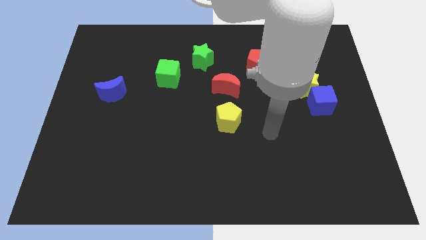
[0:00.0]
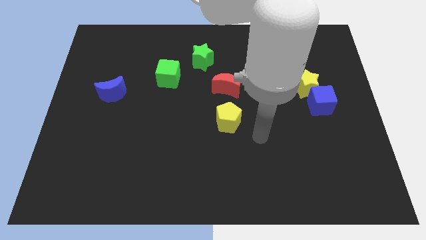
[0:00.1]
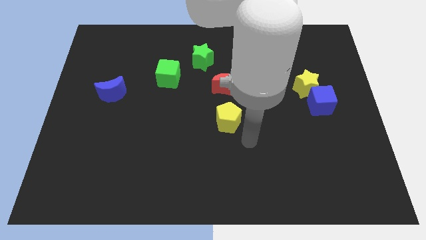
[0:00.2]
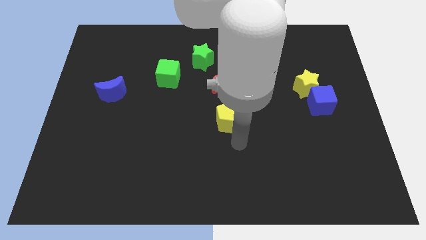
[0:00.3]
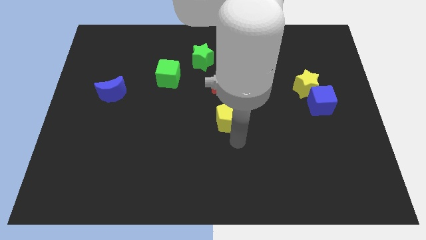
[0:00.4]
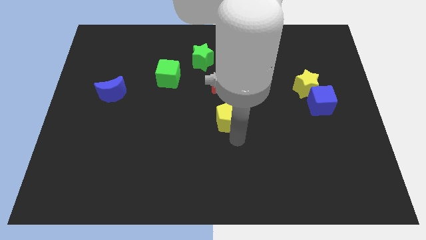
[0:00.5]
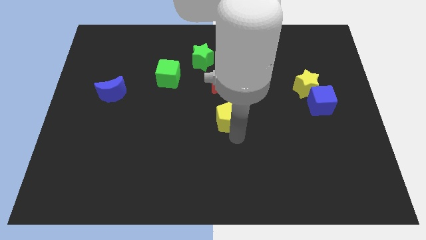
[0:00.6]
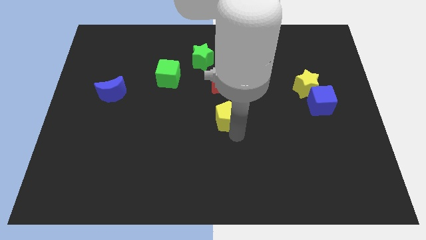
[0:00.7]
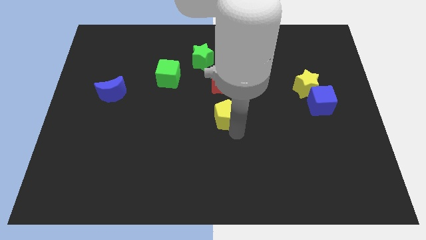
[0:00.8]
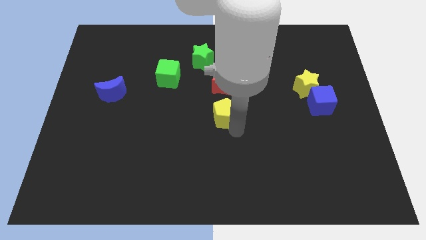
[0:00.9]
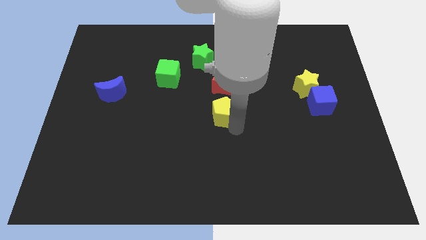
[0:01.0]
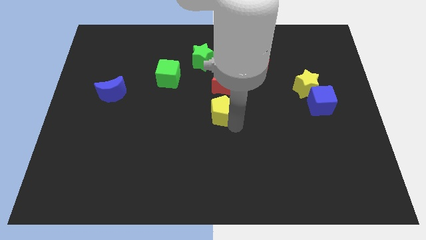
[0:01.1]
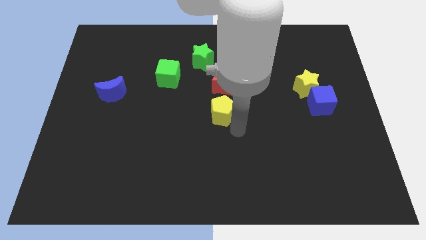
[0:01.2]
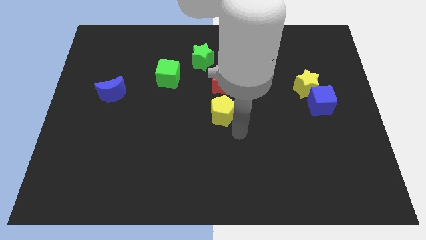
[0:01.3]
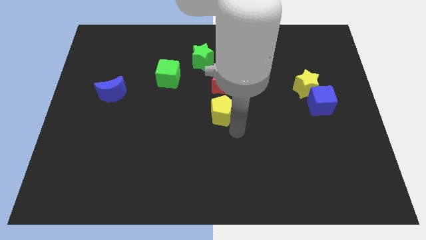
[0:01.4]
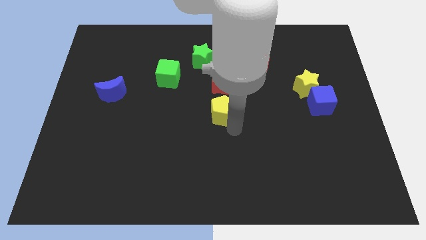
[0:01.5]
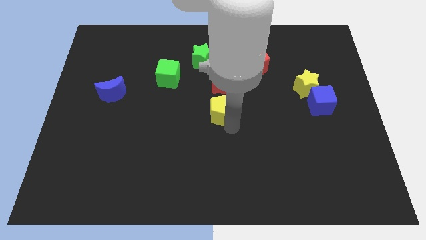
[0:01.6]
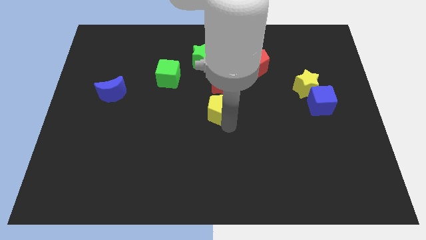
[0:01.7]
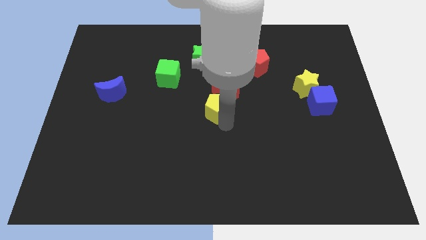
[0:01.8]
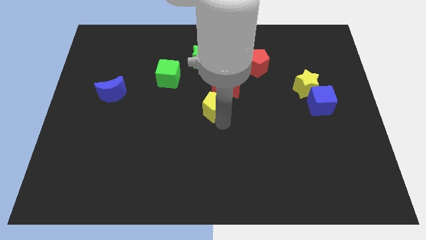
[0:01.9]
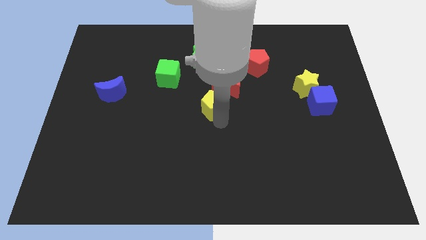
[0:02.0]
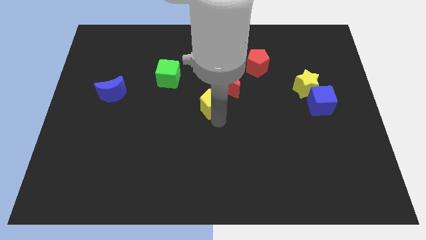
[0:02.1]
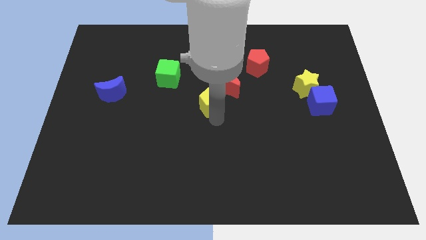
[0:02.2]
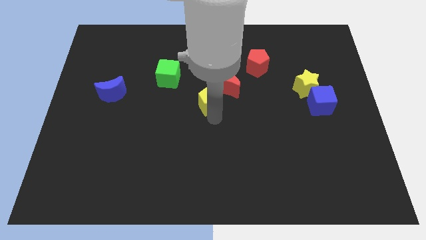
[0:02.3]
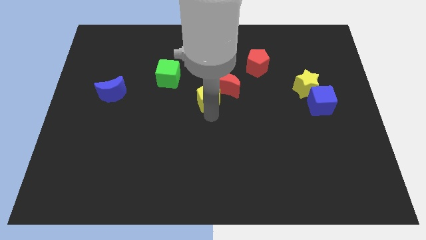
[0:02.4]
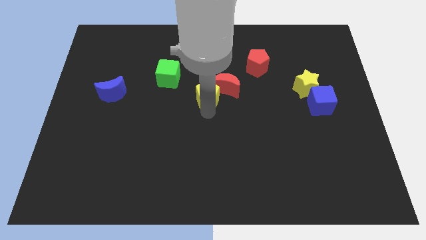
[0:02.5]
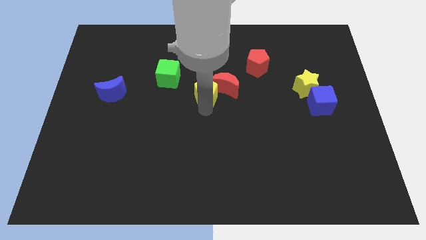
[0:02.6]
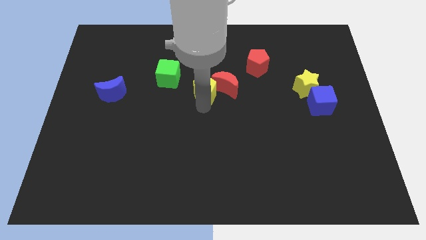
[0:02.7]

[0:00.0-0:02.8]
move the yellow pentagon upwards a little bit

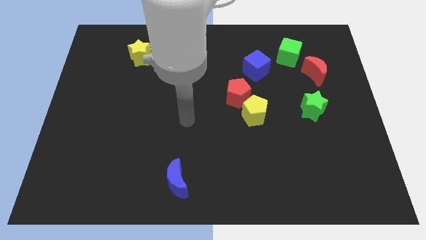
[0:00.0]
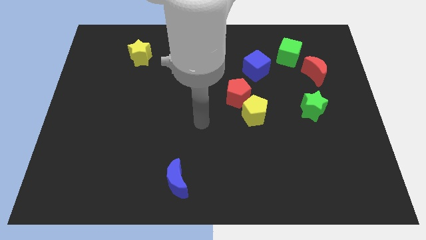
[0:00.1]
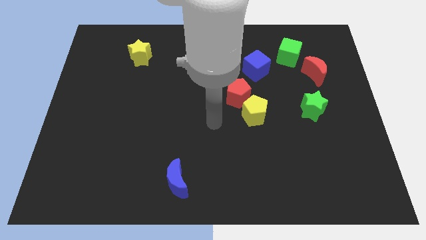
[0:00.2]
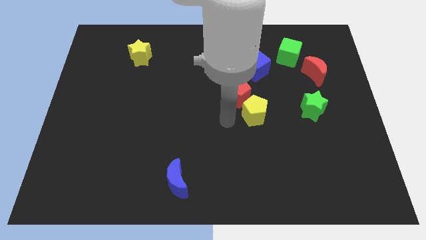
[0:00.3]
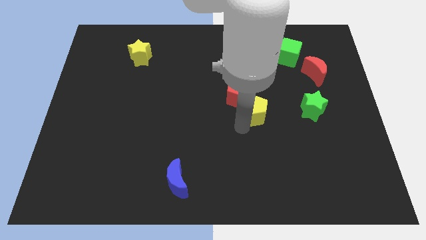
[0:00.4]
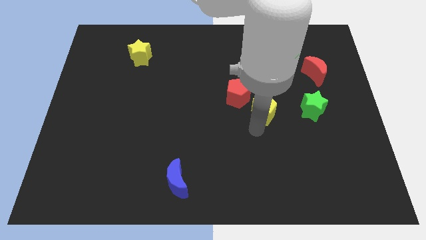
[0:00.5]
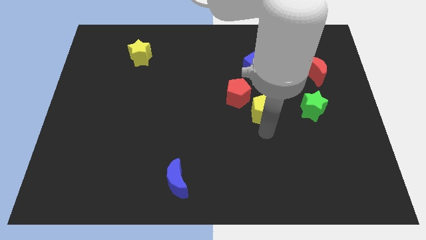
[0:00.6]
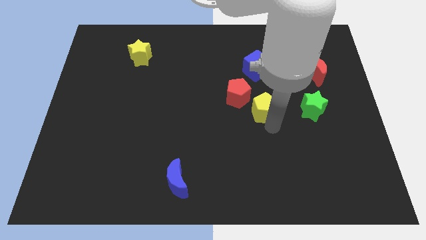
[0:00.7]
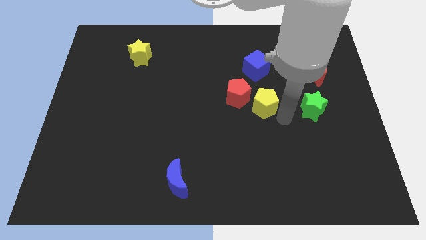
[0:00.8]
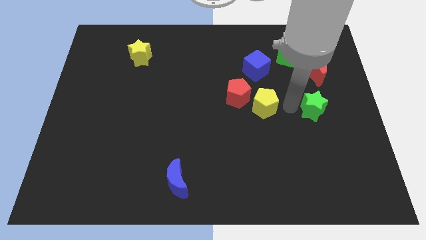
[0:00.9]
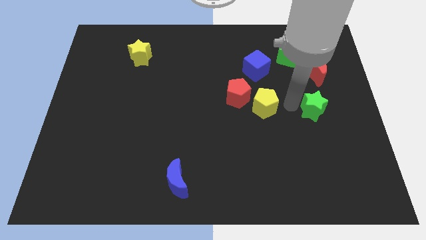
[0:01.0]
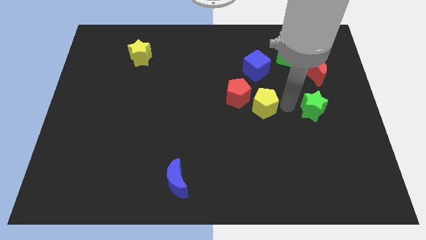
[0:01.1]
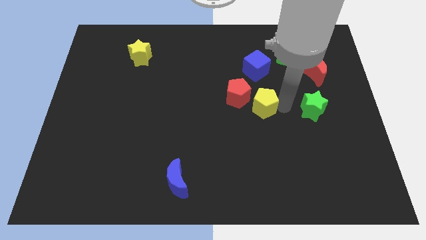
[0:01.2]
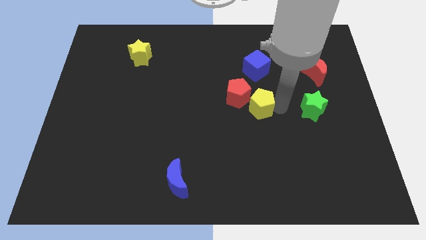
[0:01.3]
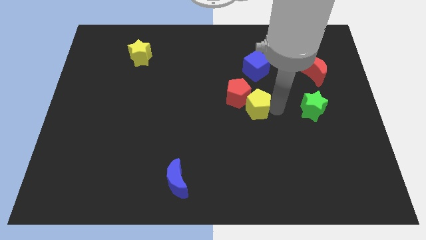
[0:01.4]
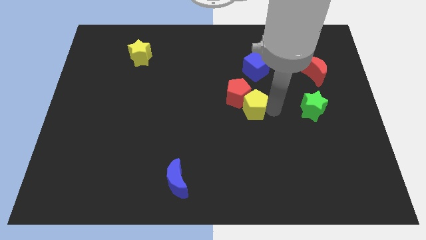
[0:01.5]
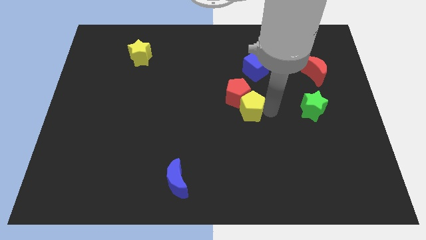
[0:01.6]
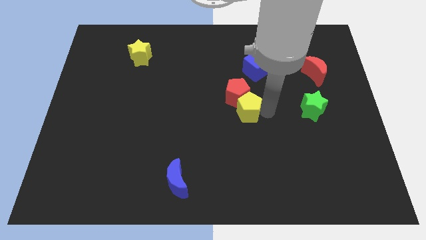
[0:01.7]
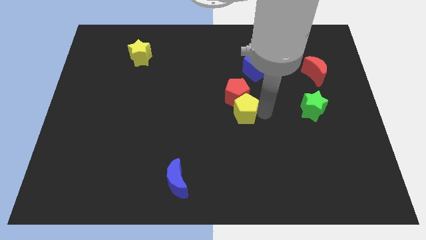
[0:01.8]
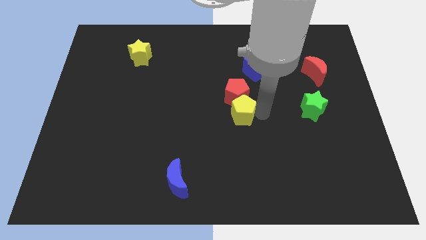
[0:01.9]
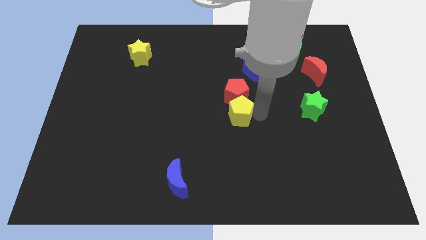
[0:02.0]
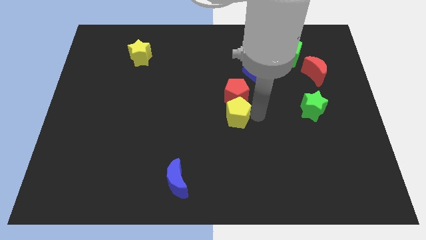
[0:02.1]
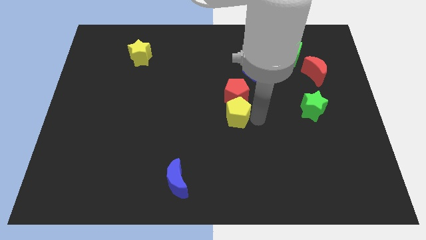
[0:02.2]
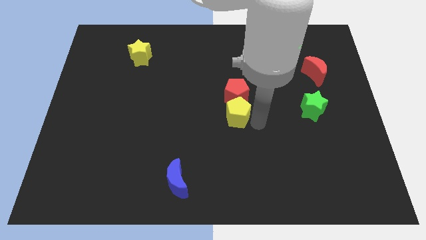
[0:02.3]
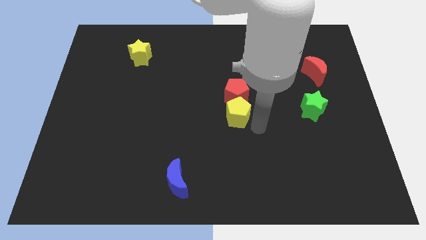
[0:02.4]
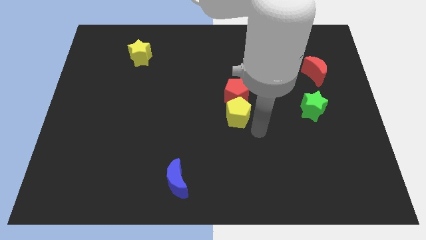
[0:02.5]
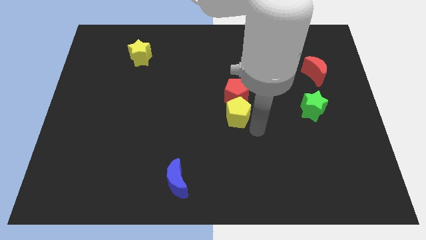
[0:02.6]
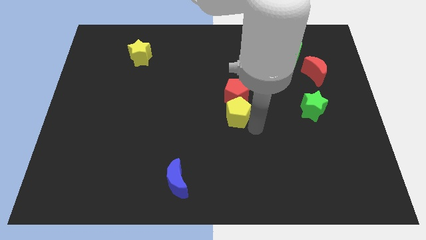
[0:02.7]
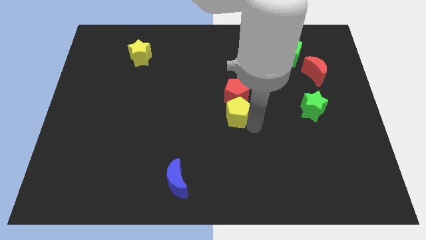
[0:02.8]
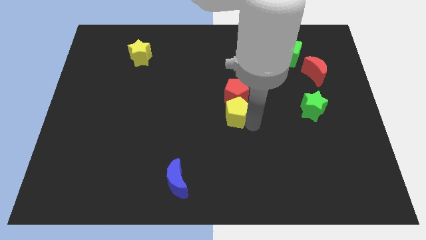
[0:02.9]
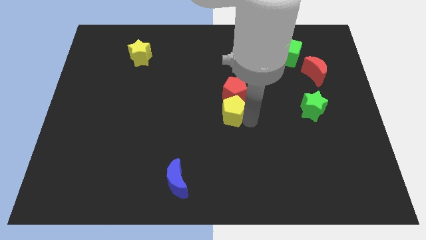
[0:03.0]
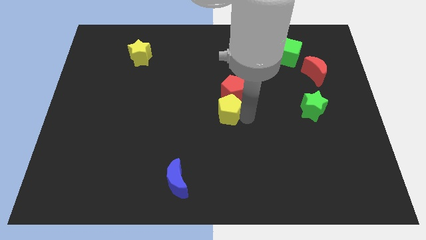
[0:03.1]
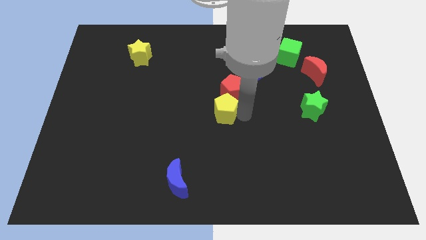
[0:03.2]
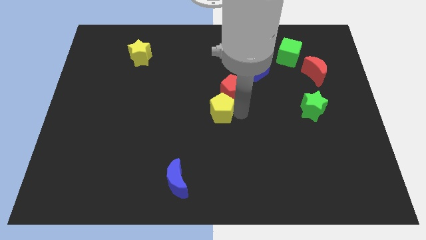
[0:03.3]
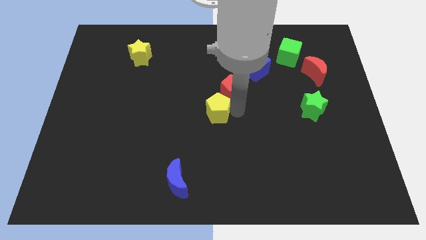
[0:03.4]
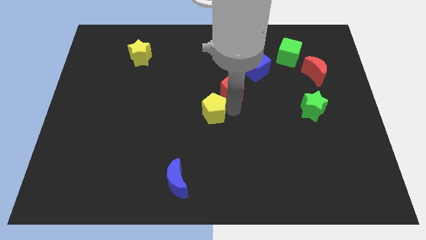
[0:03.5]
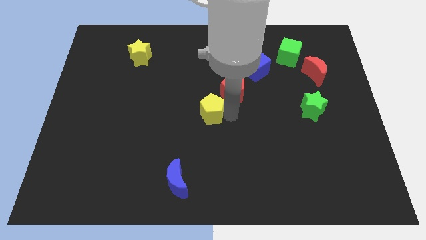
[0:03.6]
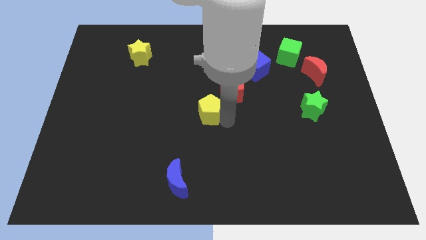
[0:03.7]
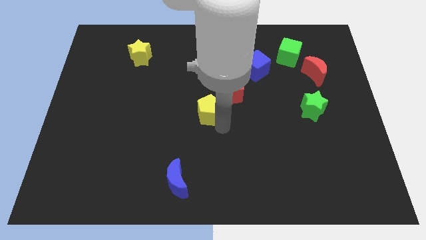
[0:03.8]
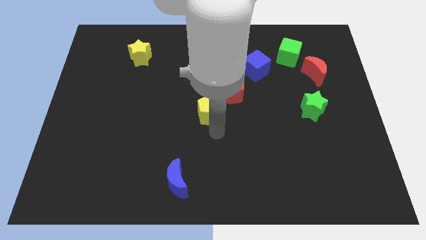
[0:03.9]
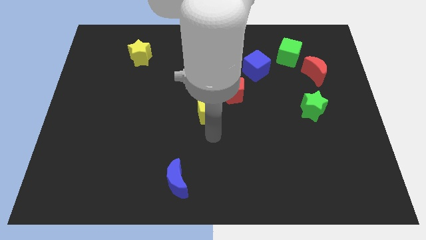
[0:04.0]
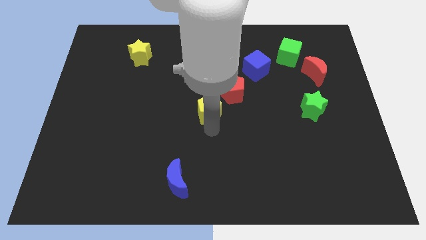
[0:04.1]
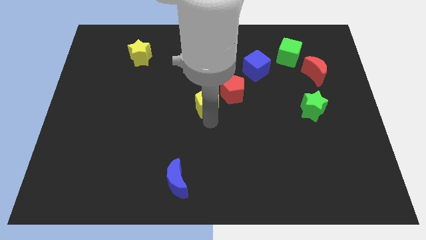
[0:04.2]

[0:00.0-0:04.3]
slide the yellow pentagon up and then left a bit

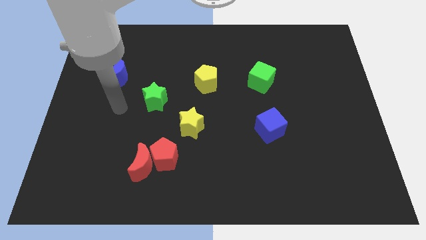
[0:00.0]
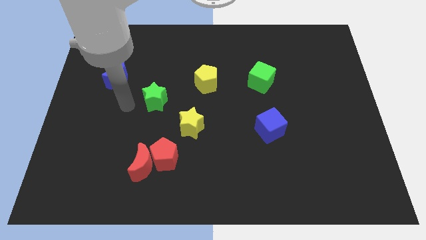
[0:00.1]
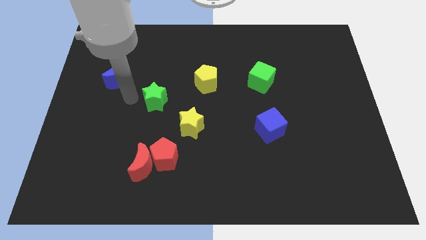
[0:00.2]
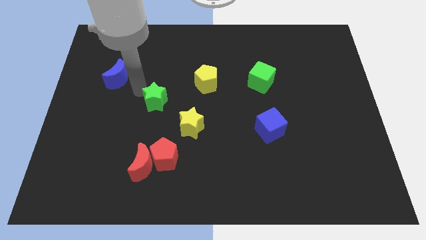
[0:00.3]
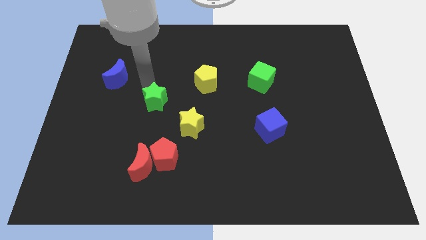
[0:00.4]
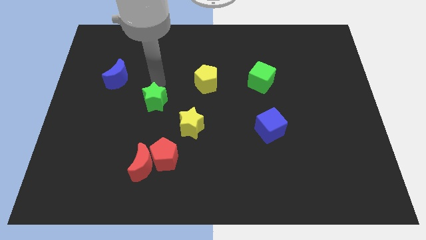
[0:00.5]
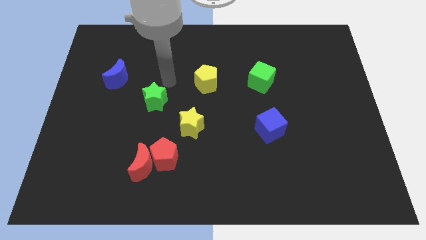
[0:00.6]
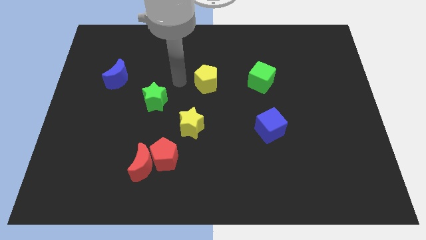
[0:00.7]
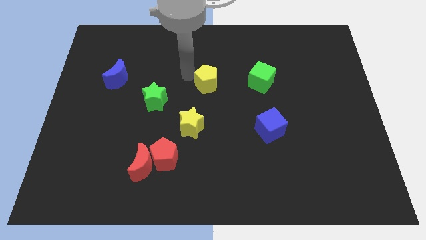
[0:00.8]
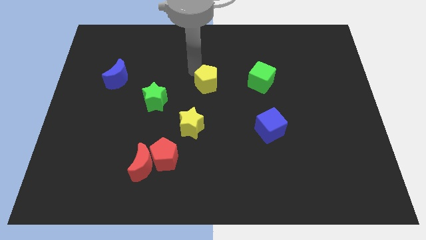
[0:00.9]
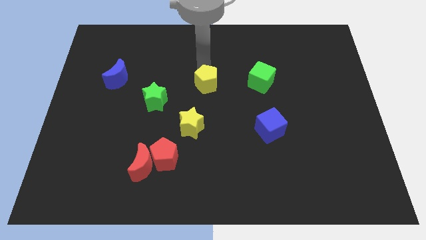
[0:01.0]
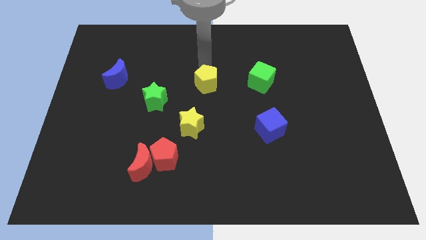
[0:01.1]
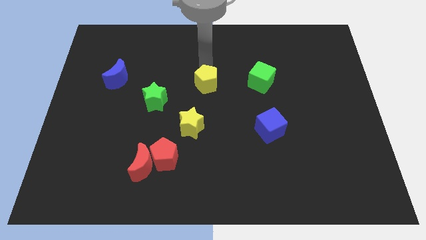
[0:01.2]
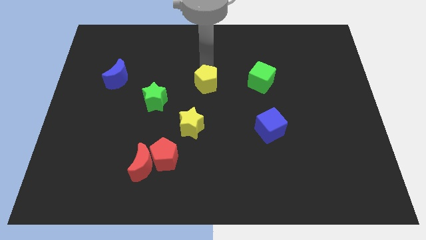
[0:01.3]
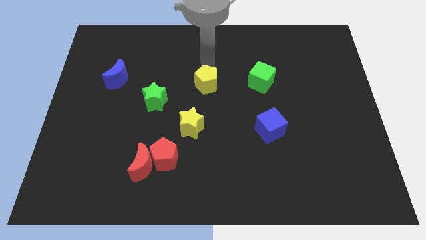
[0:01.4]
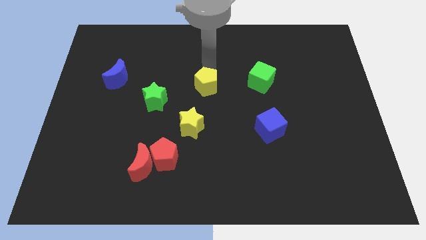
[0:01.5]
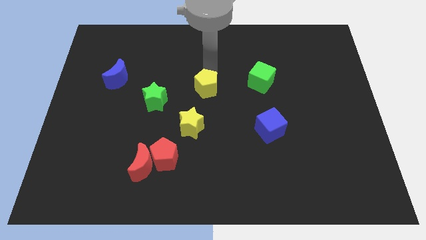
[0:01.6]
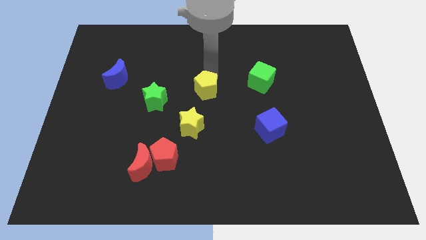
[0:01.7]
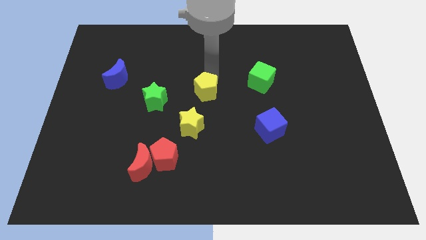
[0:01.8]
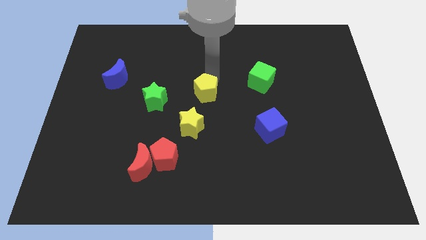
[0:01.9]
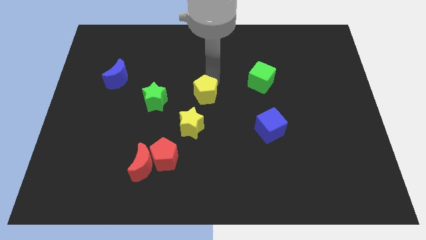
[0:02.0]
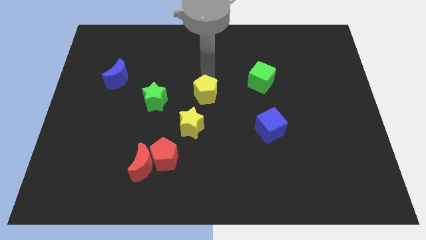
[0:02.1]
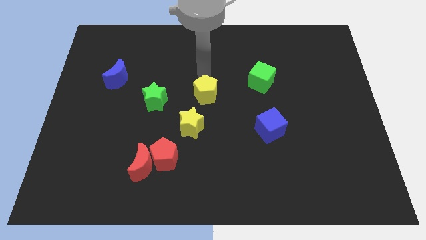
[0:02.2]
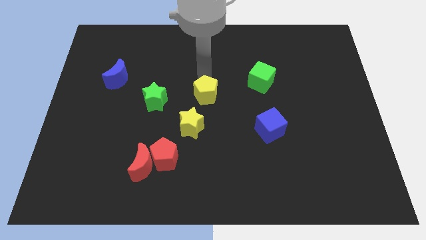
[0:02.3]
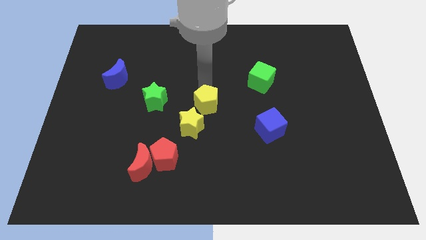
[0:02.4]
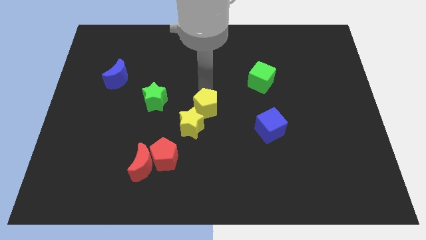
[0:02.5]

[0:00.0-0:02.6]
push the yellow pentagon downwards a bit
